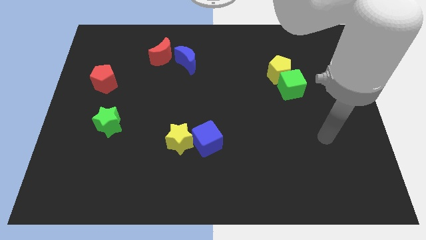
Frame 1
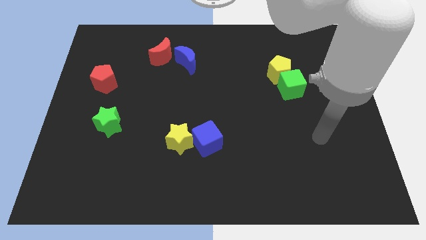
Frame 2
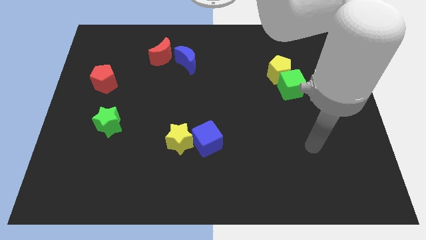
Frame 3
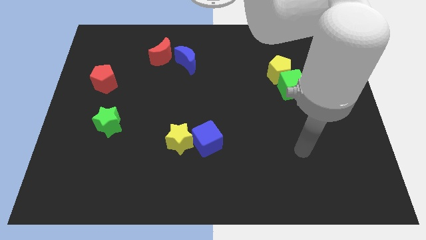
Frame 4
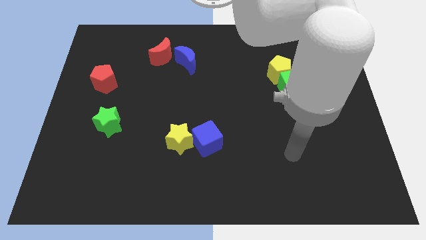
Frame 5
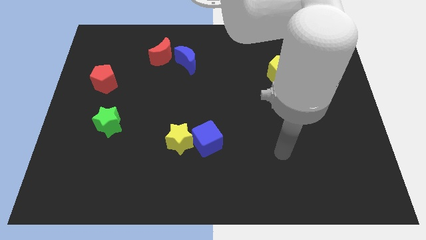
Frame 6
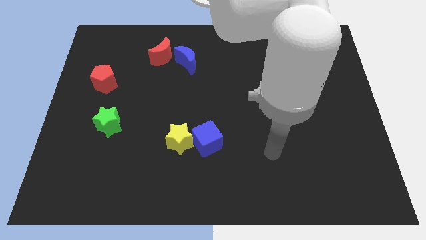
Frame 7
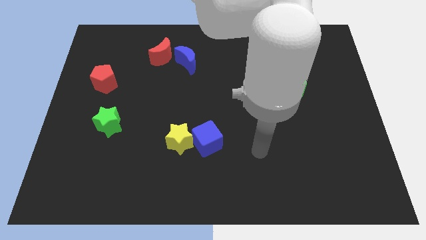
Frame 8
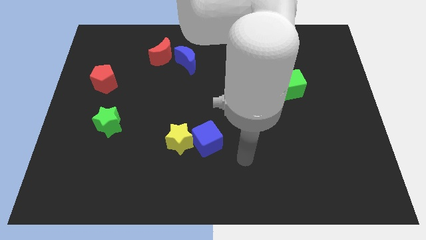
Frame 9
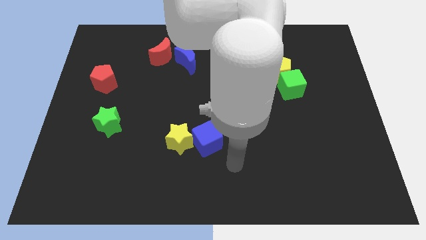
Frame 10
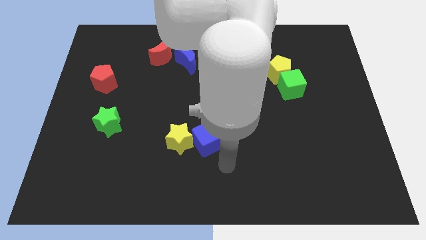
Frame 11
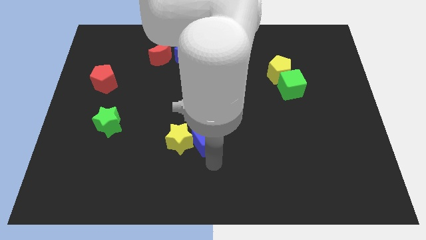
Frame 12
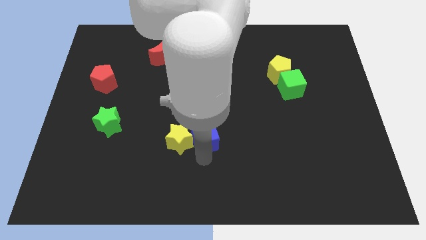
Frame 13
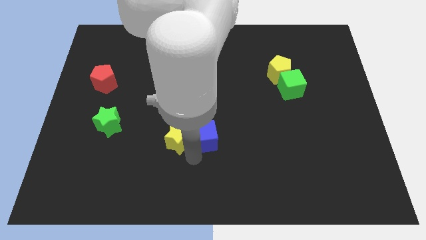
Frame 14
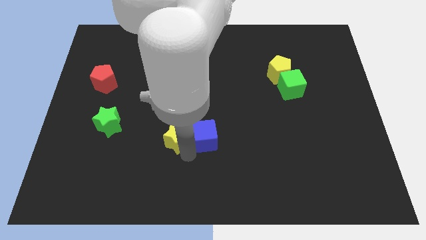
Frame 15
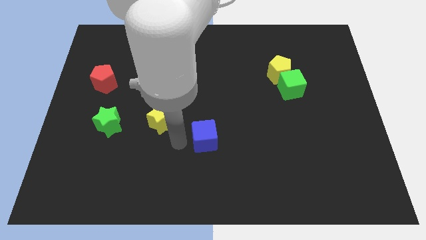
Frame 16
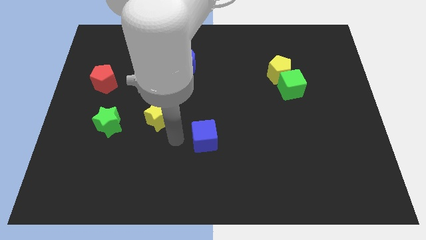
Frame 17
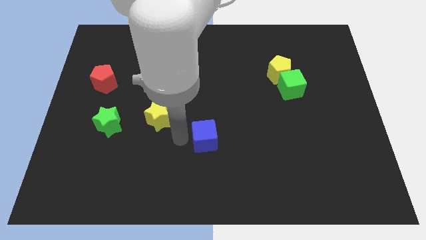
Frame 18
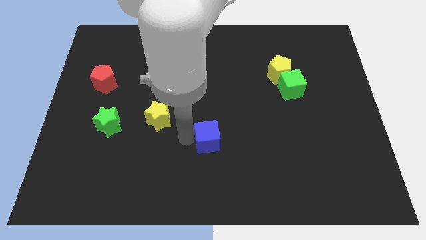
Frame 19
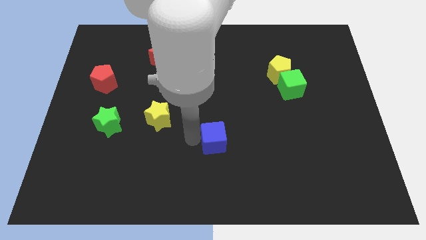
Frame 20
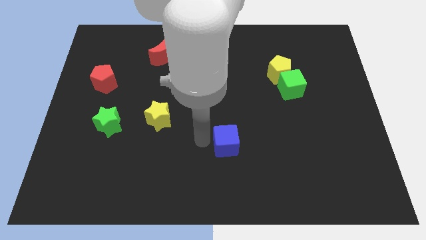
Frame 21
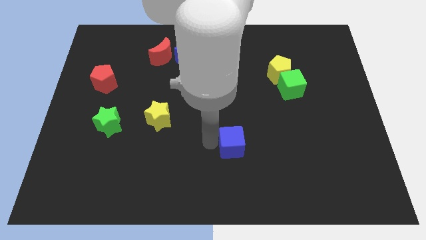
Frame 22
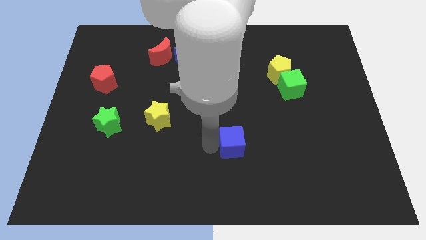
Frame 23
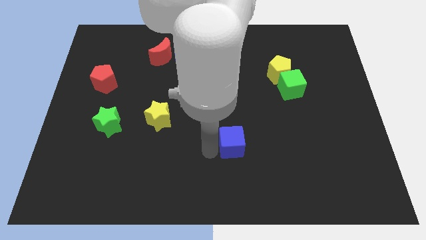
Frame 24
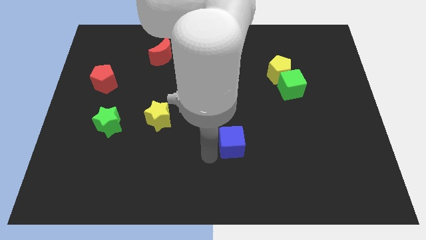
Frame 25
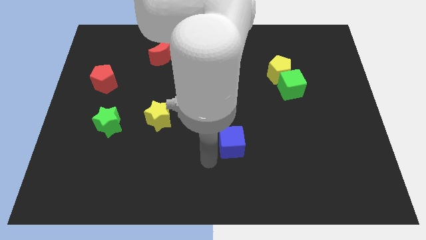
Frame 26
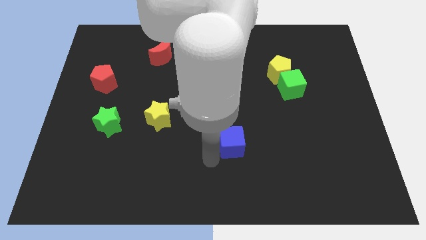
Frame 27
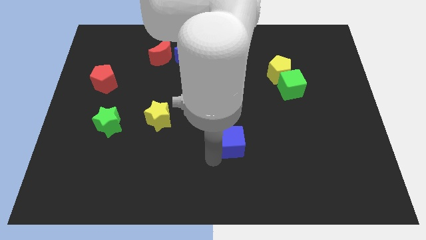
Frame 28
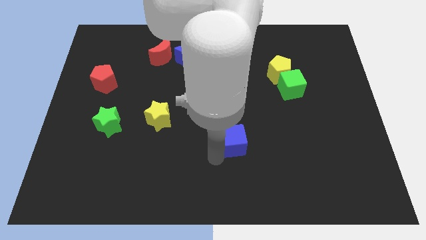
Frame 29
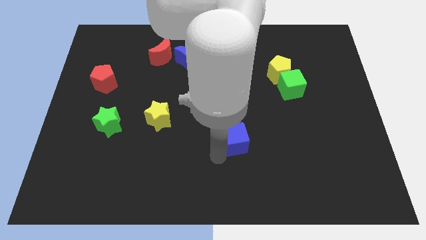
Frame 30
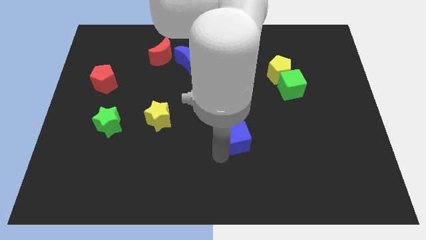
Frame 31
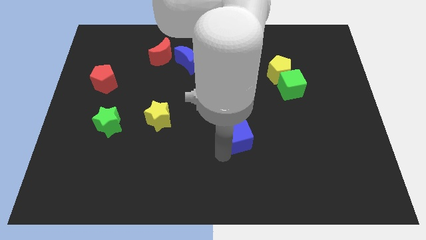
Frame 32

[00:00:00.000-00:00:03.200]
push the blue cube to the right a bit

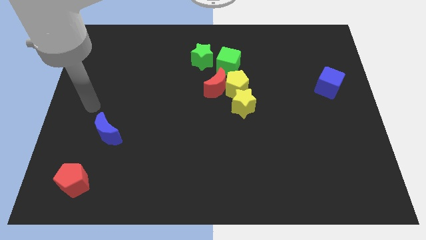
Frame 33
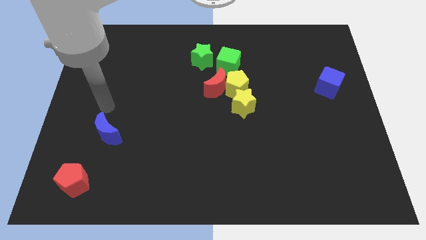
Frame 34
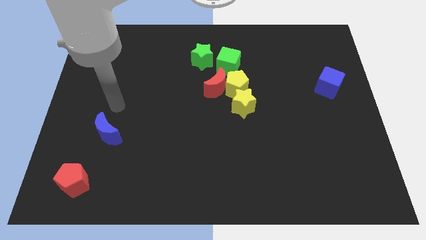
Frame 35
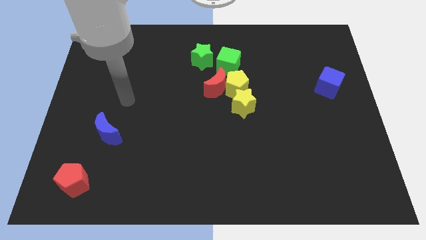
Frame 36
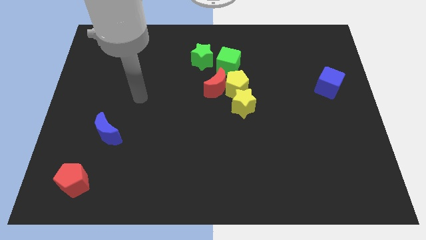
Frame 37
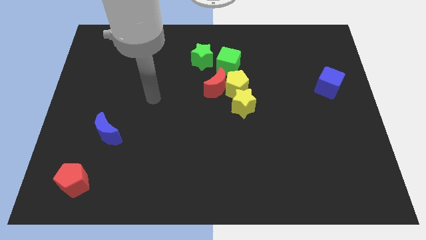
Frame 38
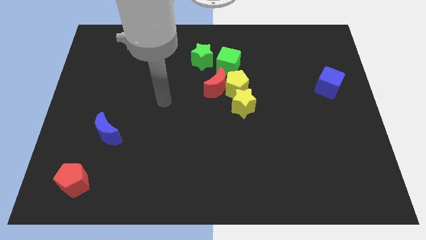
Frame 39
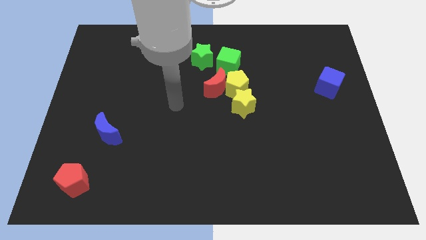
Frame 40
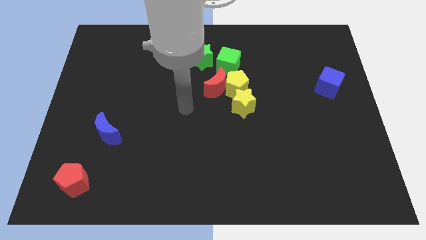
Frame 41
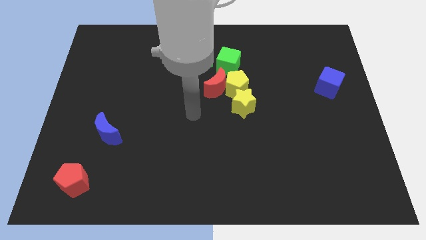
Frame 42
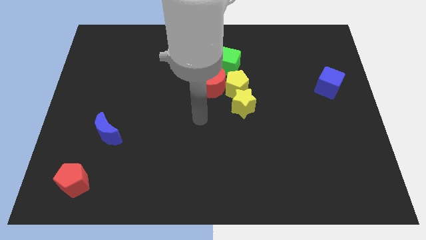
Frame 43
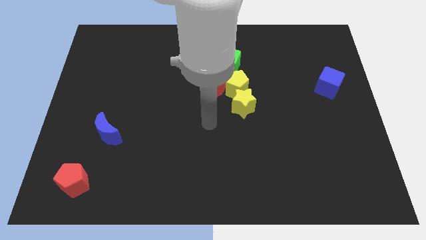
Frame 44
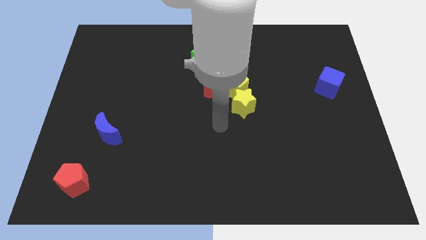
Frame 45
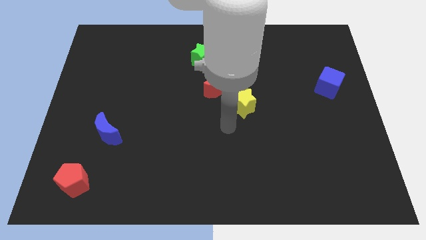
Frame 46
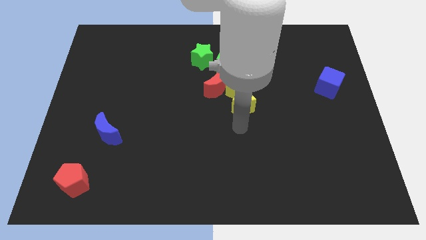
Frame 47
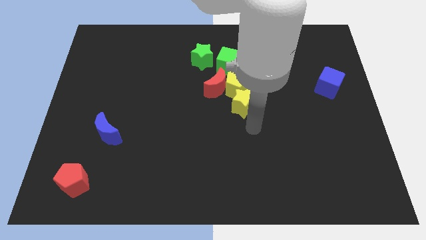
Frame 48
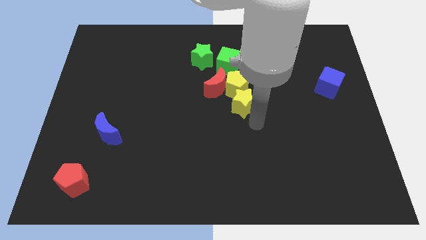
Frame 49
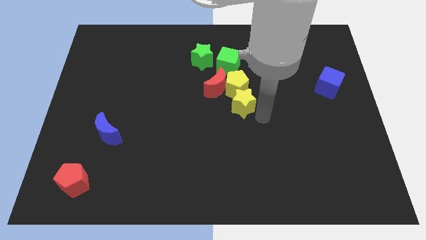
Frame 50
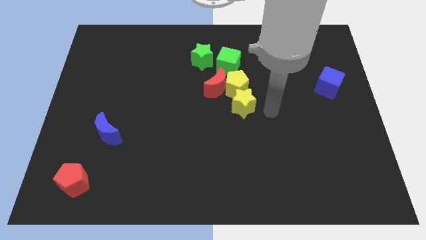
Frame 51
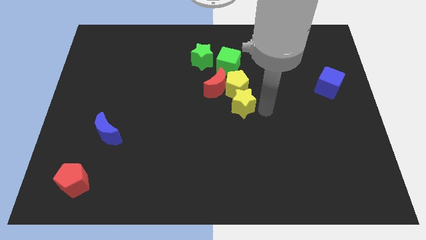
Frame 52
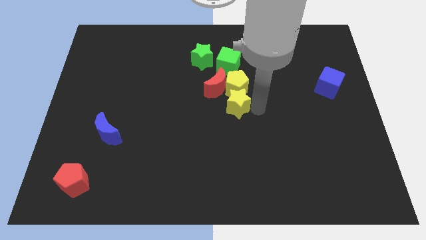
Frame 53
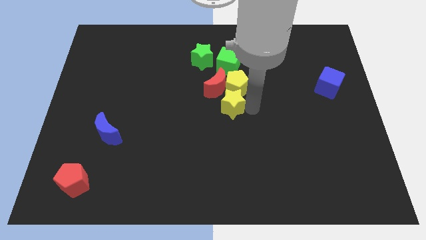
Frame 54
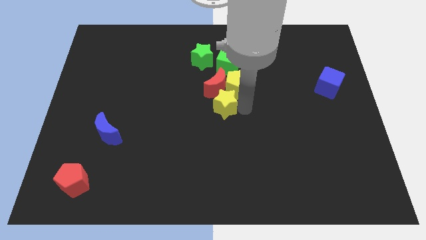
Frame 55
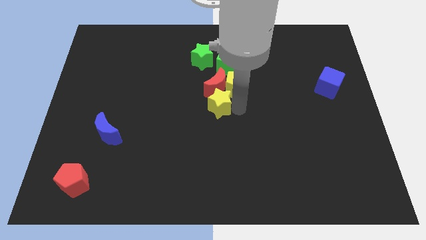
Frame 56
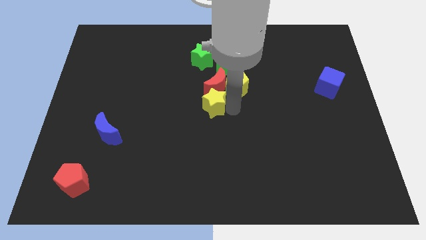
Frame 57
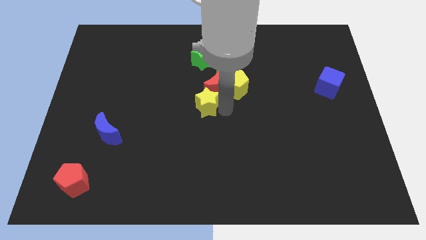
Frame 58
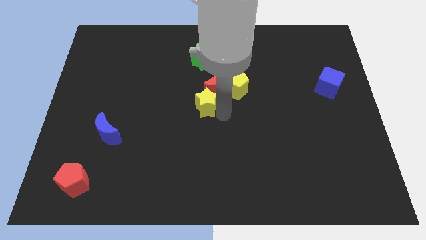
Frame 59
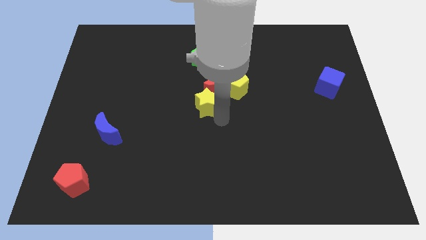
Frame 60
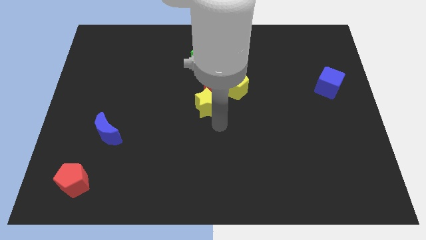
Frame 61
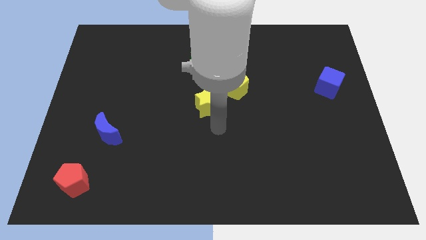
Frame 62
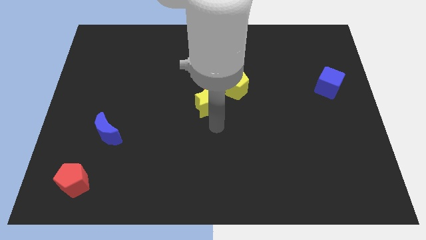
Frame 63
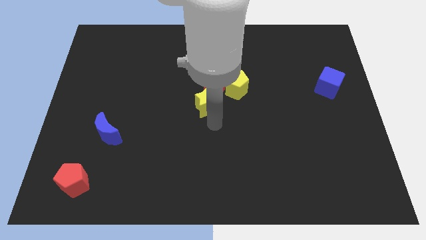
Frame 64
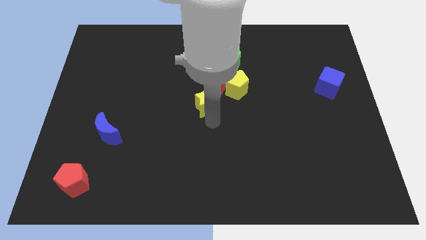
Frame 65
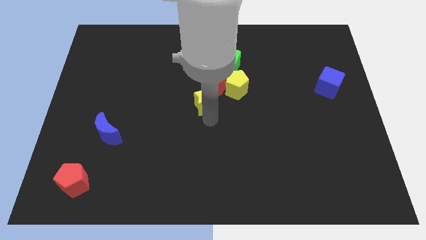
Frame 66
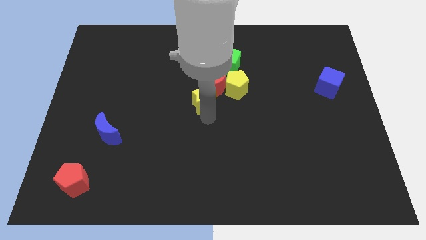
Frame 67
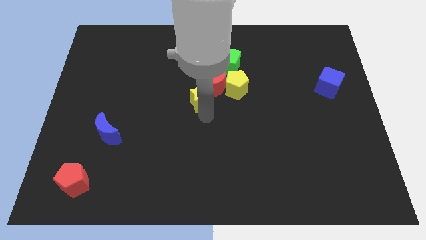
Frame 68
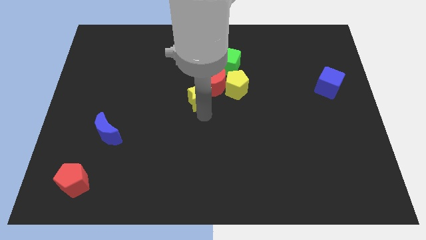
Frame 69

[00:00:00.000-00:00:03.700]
push the yellow star diagonally up and left slightly

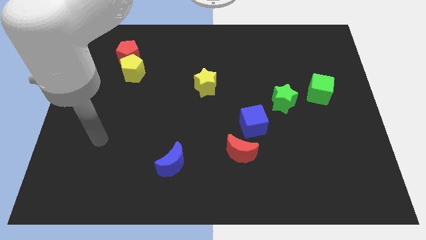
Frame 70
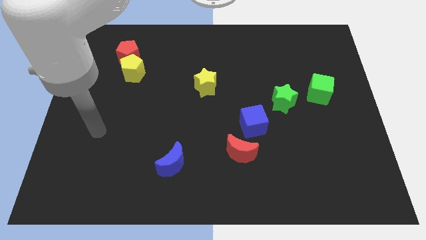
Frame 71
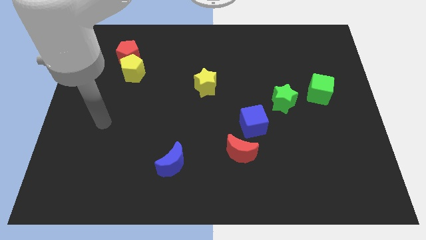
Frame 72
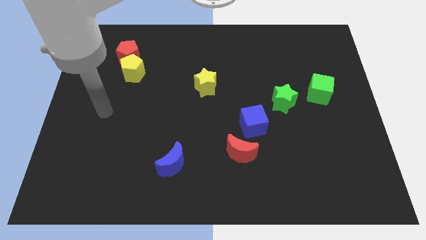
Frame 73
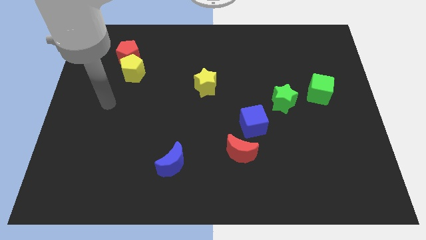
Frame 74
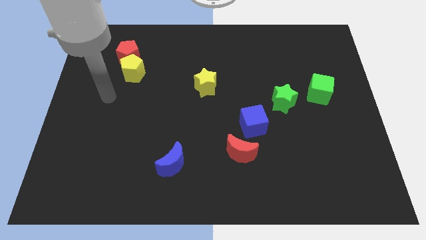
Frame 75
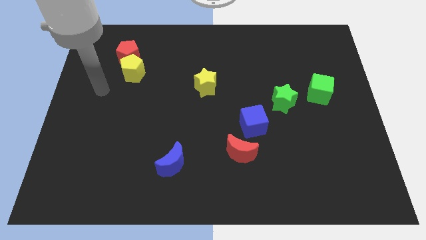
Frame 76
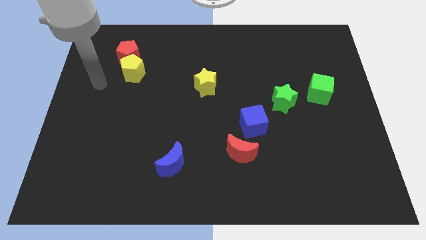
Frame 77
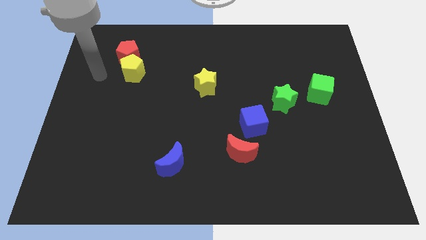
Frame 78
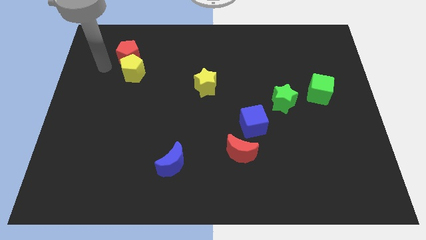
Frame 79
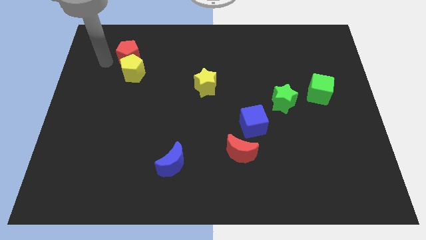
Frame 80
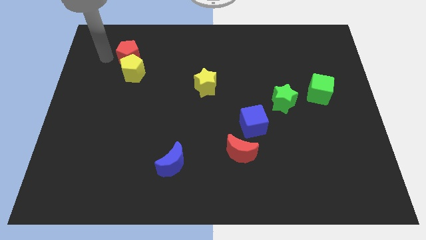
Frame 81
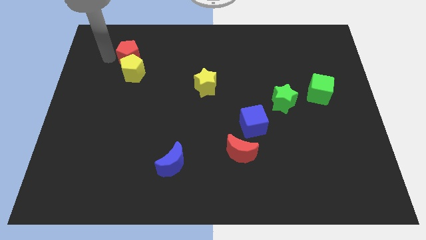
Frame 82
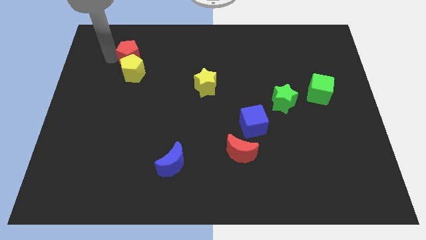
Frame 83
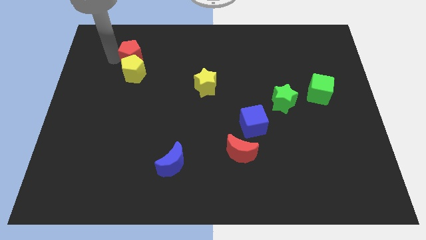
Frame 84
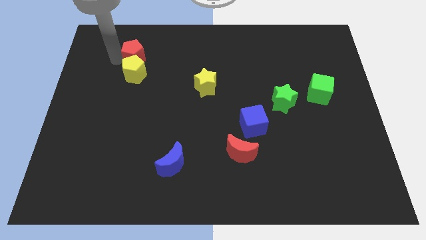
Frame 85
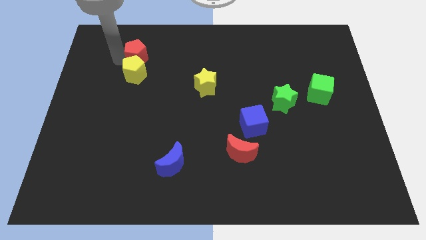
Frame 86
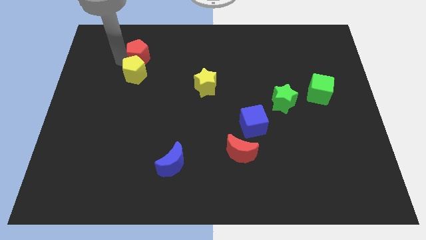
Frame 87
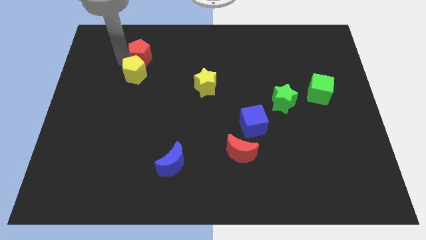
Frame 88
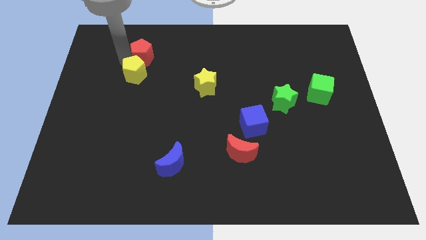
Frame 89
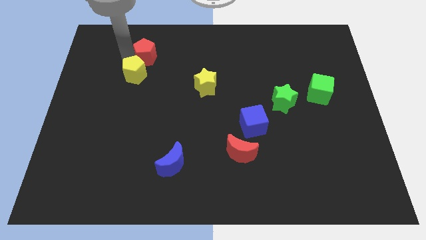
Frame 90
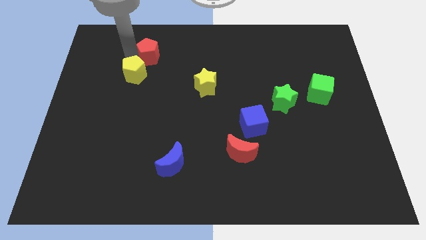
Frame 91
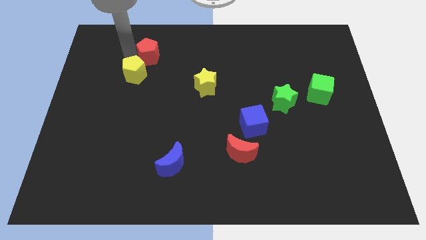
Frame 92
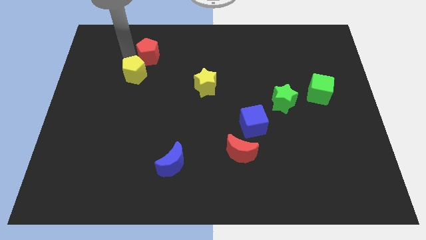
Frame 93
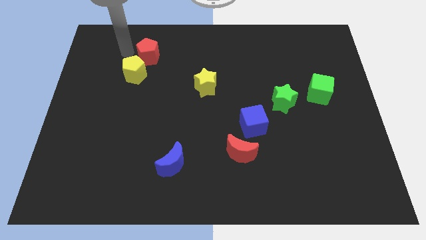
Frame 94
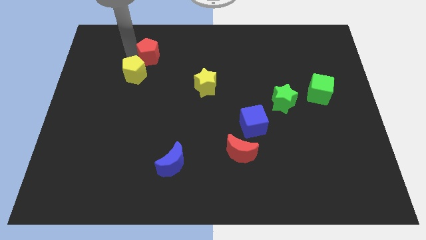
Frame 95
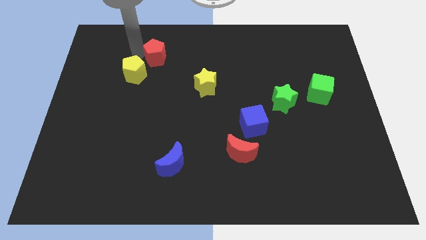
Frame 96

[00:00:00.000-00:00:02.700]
slightly move the red pentagon right
